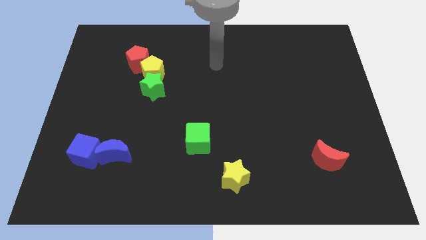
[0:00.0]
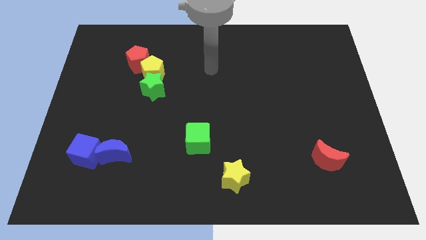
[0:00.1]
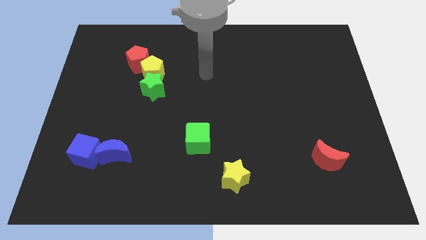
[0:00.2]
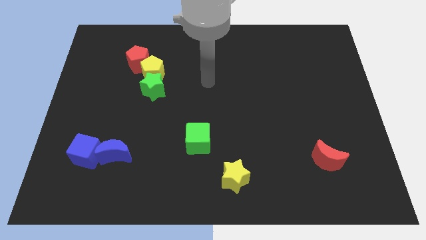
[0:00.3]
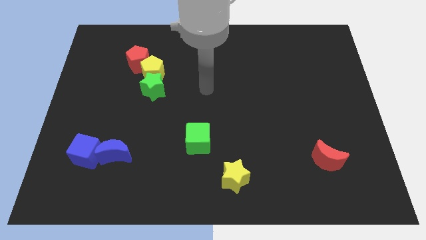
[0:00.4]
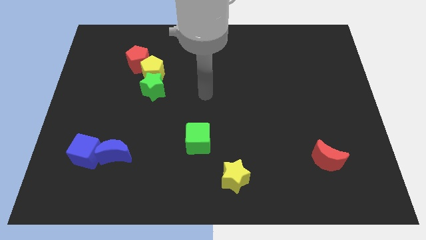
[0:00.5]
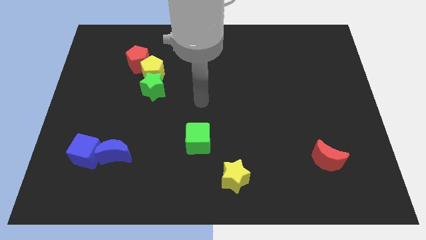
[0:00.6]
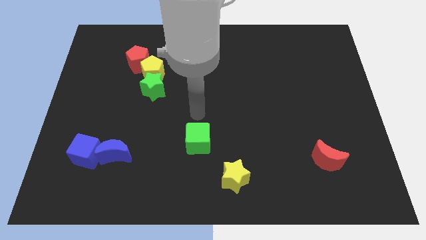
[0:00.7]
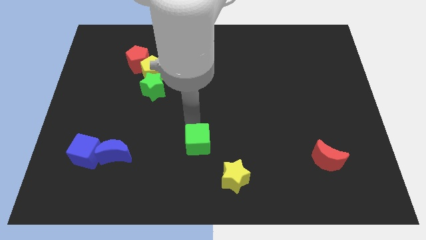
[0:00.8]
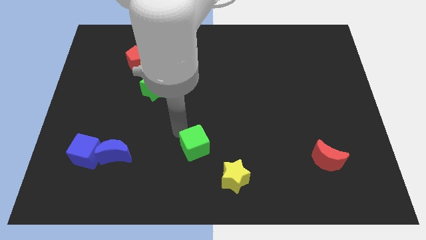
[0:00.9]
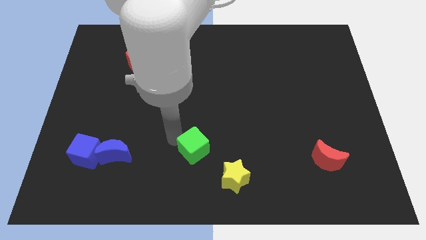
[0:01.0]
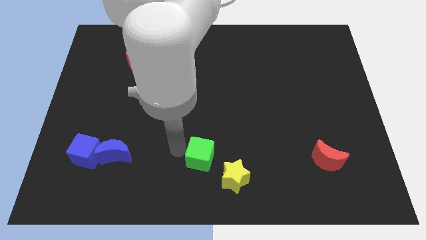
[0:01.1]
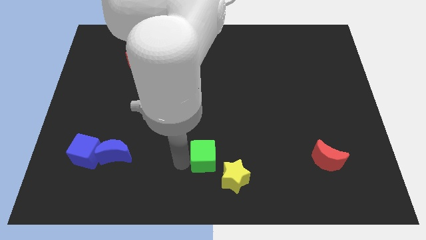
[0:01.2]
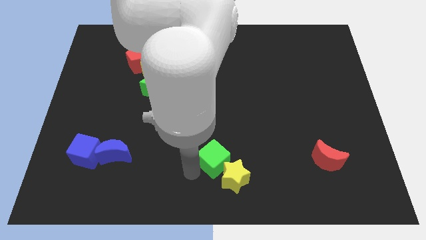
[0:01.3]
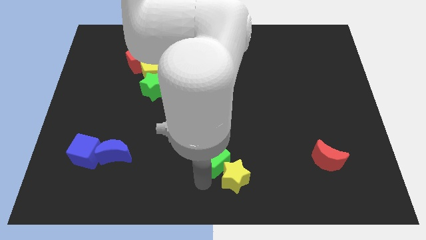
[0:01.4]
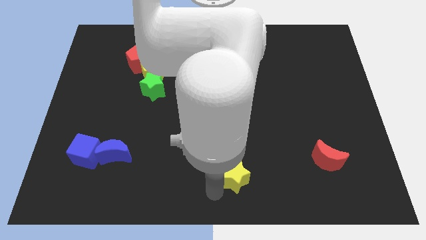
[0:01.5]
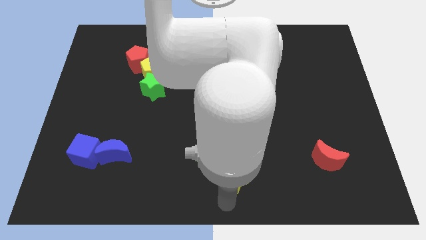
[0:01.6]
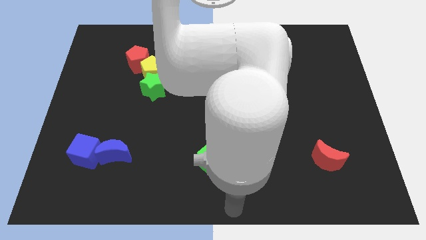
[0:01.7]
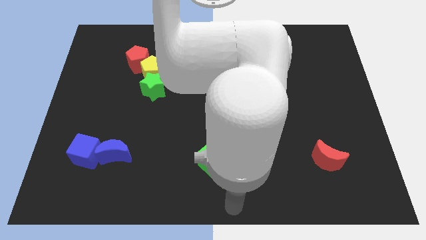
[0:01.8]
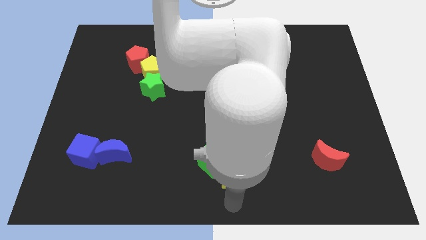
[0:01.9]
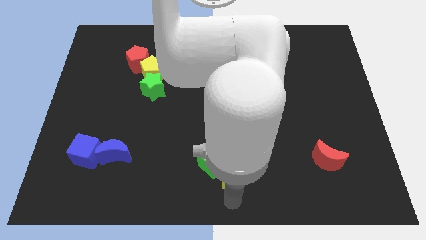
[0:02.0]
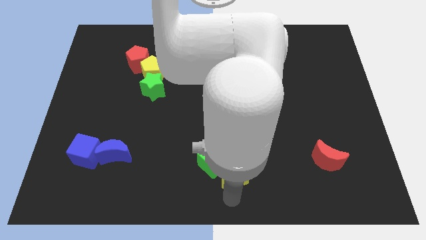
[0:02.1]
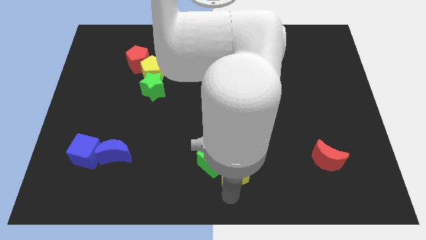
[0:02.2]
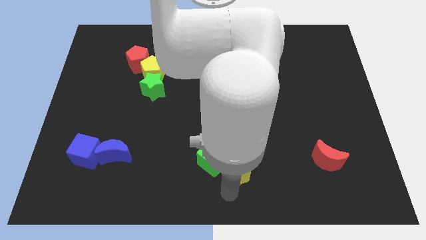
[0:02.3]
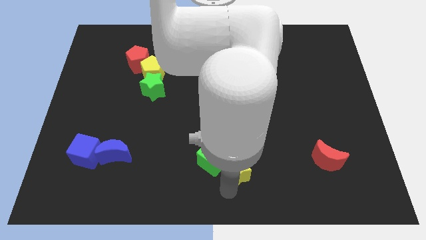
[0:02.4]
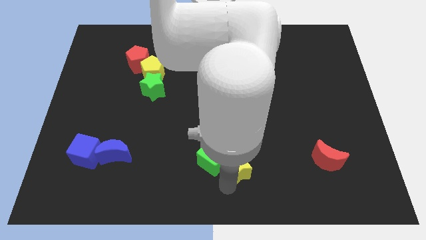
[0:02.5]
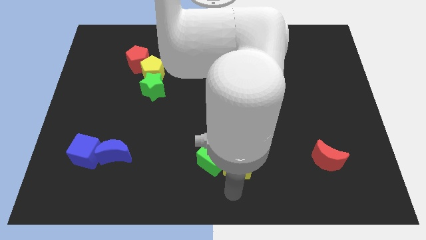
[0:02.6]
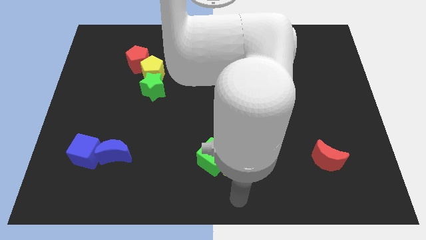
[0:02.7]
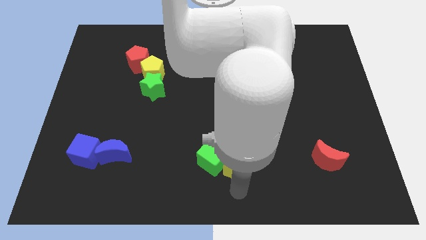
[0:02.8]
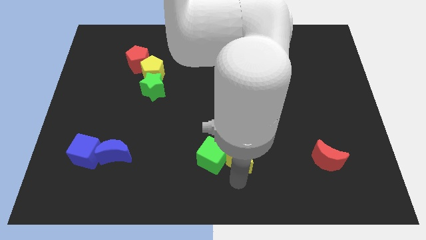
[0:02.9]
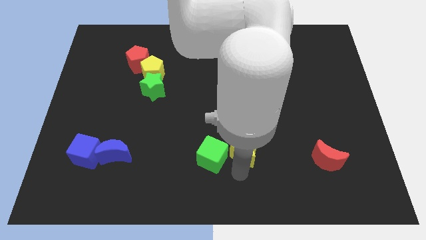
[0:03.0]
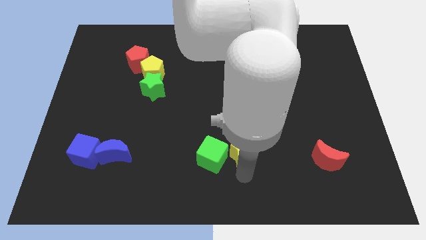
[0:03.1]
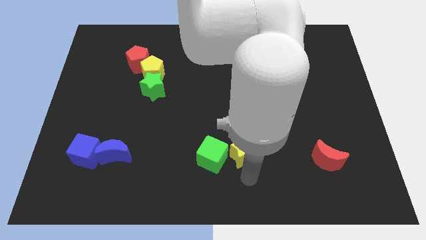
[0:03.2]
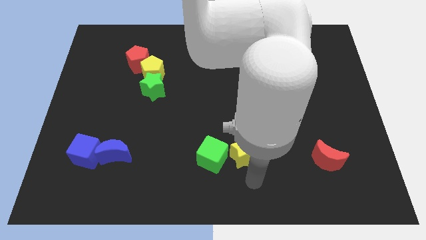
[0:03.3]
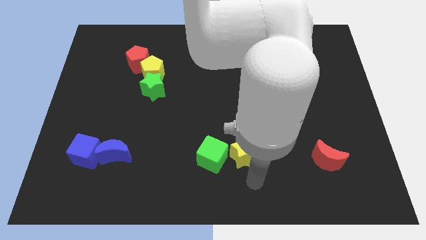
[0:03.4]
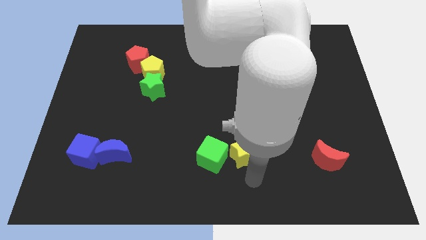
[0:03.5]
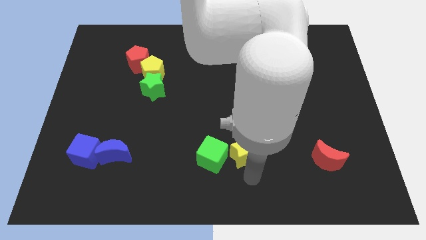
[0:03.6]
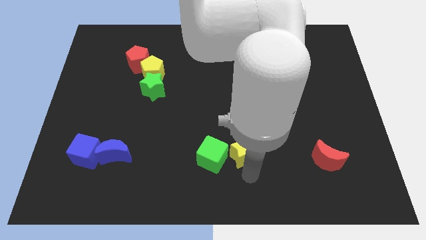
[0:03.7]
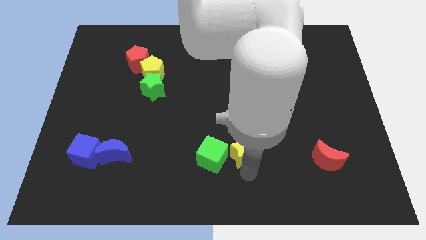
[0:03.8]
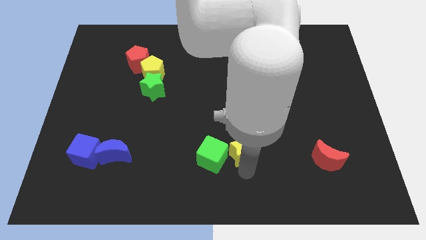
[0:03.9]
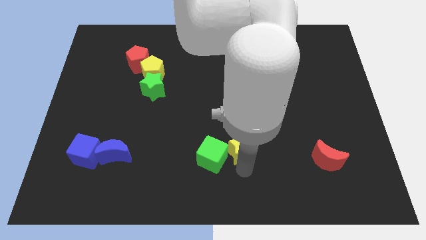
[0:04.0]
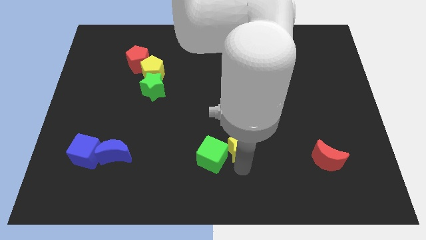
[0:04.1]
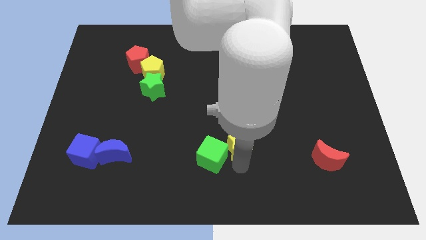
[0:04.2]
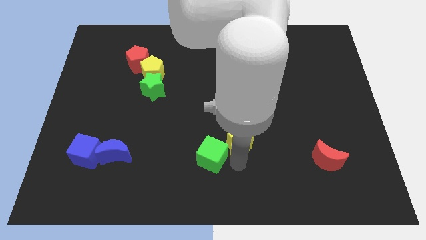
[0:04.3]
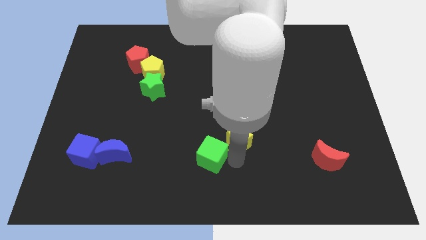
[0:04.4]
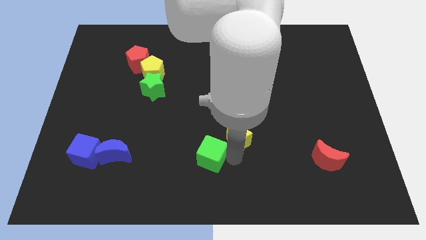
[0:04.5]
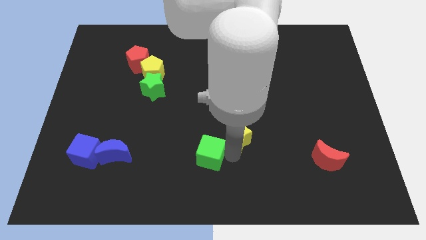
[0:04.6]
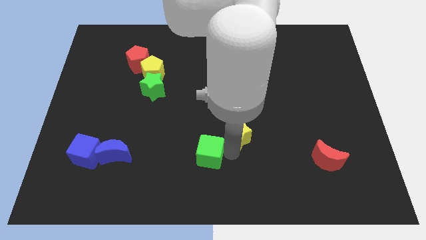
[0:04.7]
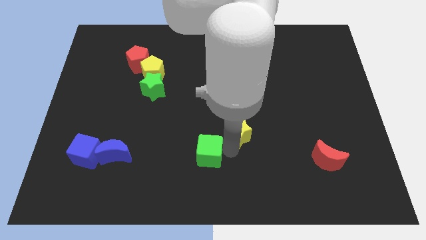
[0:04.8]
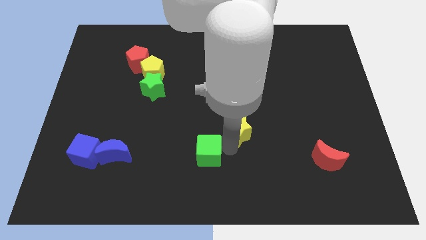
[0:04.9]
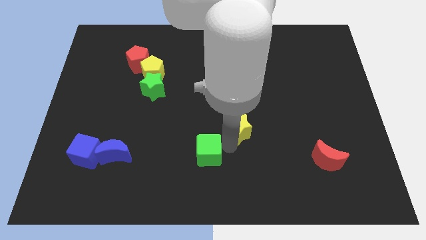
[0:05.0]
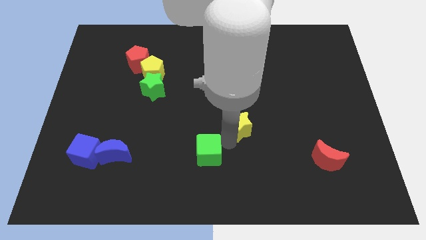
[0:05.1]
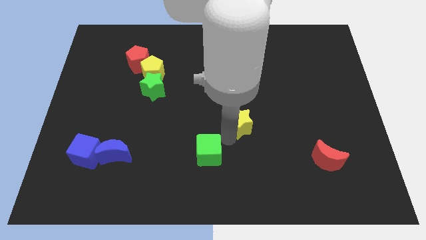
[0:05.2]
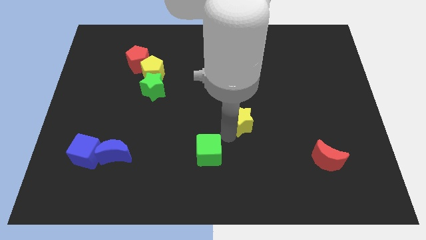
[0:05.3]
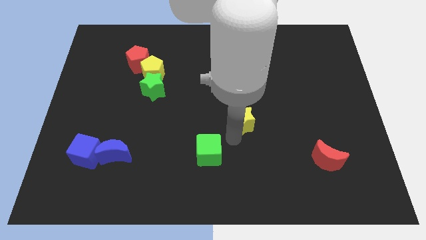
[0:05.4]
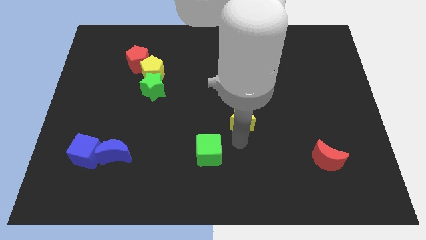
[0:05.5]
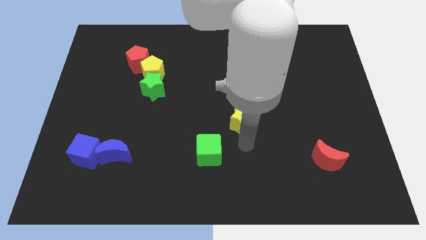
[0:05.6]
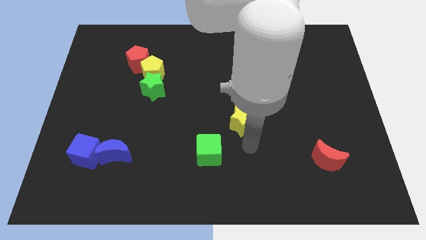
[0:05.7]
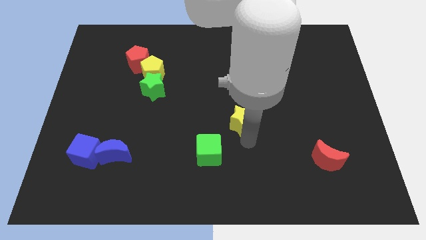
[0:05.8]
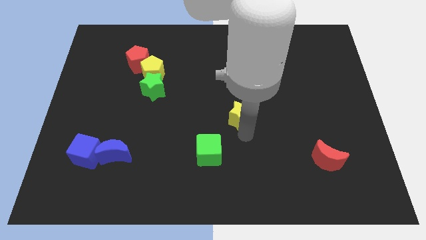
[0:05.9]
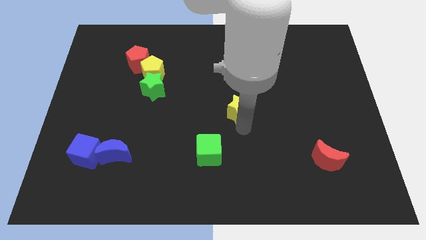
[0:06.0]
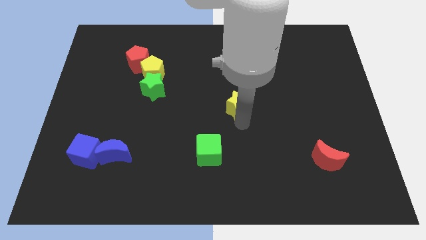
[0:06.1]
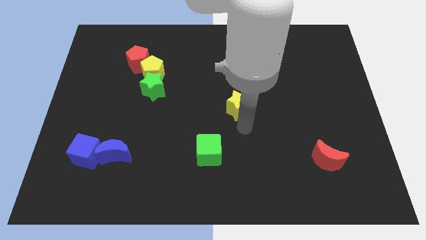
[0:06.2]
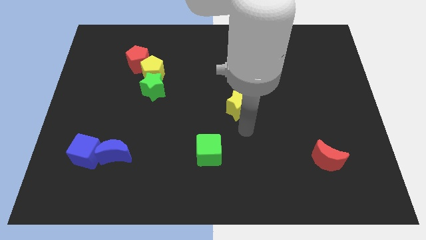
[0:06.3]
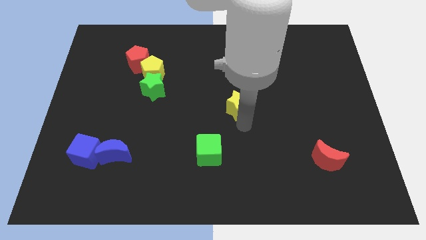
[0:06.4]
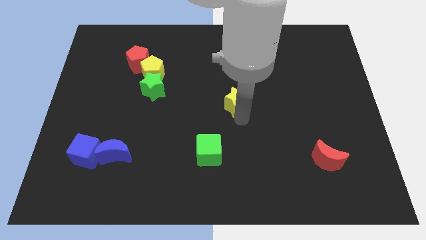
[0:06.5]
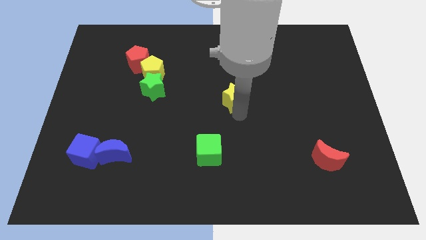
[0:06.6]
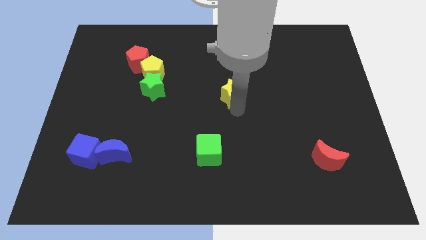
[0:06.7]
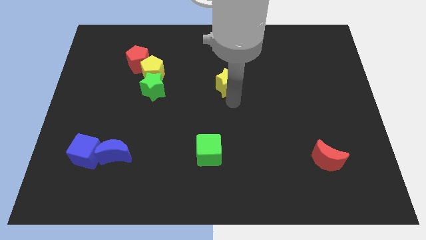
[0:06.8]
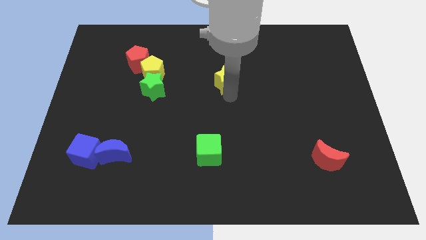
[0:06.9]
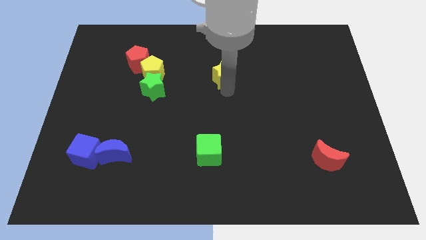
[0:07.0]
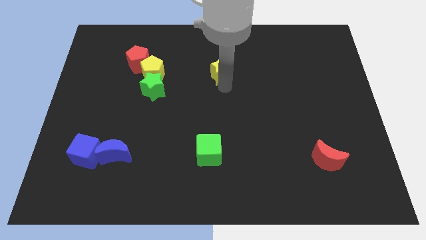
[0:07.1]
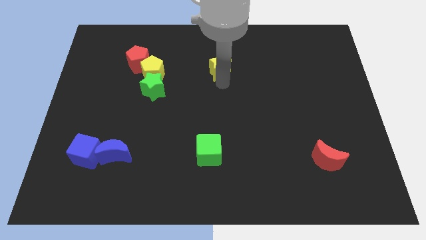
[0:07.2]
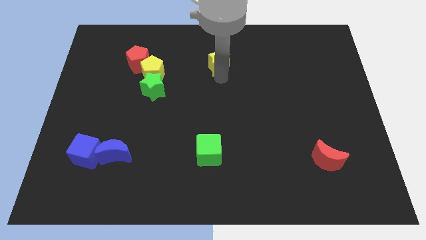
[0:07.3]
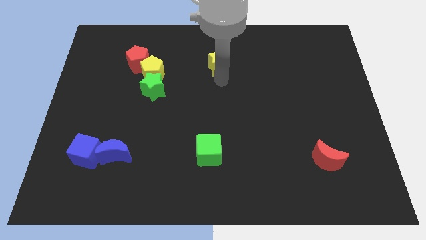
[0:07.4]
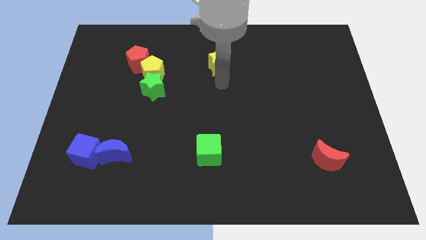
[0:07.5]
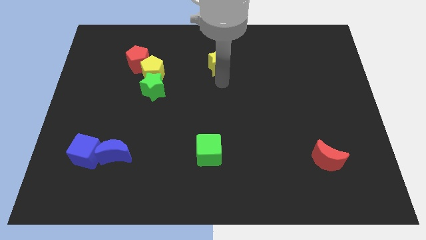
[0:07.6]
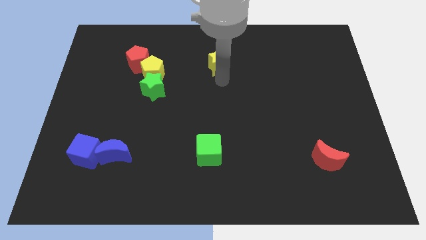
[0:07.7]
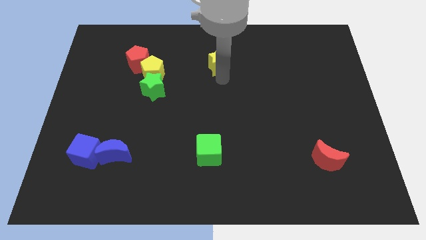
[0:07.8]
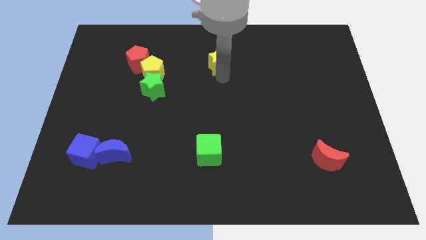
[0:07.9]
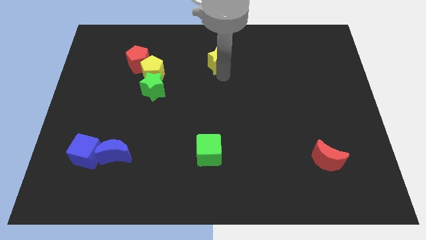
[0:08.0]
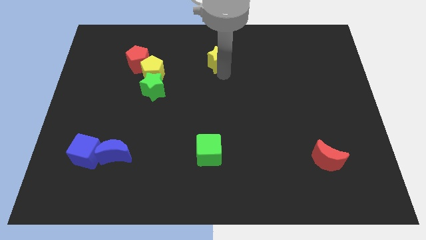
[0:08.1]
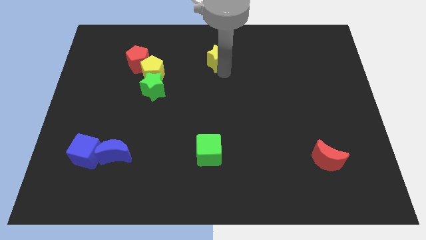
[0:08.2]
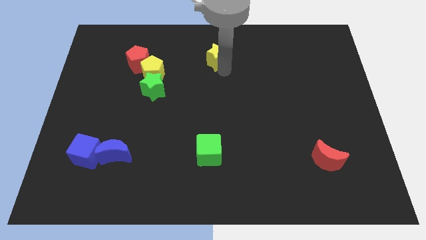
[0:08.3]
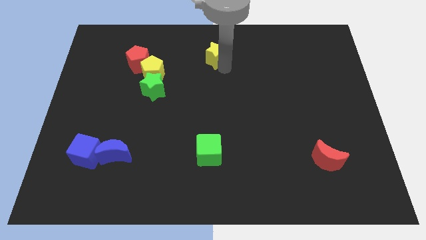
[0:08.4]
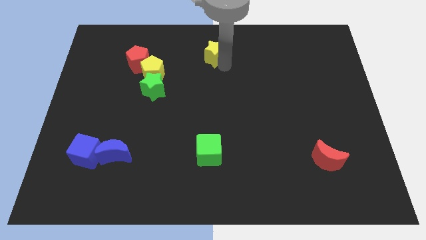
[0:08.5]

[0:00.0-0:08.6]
put the yellow star to the top
